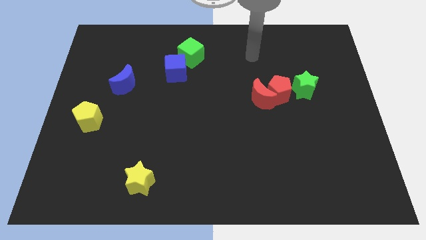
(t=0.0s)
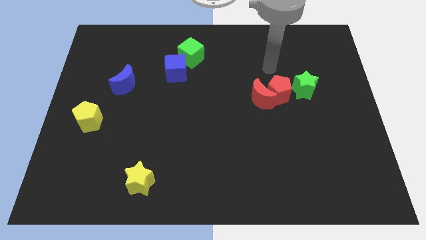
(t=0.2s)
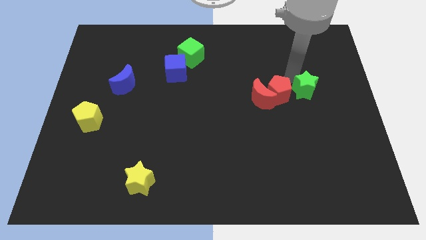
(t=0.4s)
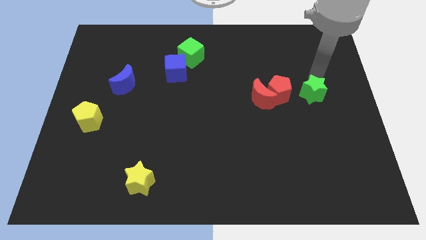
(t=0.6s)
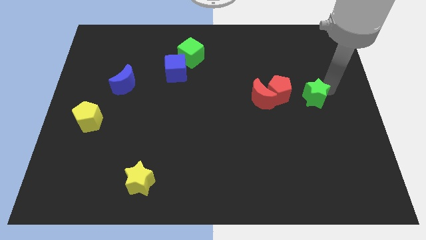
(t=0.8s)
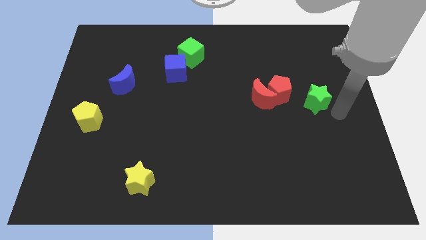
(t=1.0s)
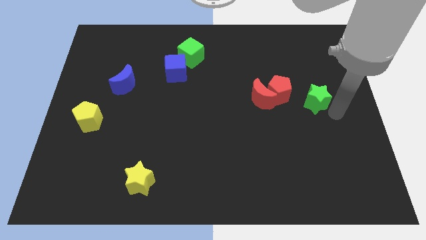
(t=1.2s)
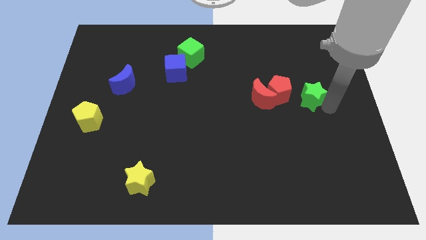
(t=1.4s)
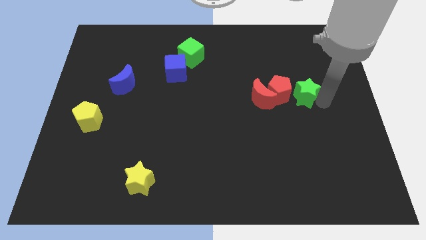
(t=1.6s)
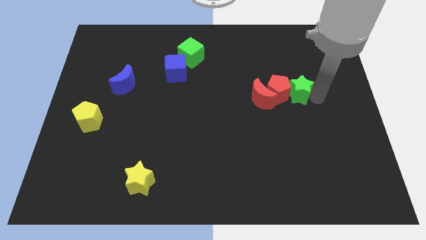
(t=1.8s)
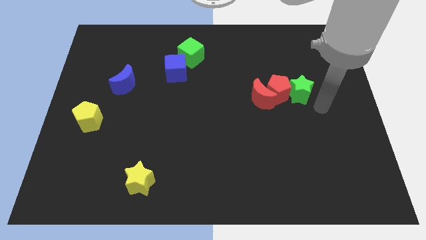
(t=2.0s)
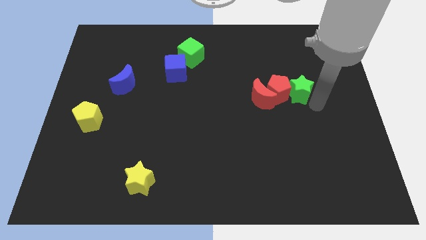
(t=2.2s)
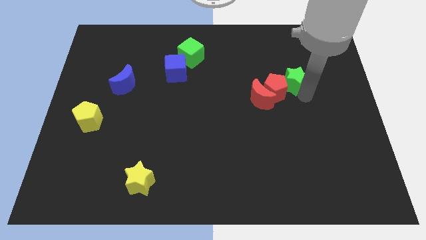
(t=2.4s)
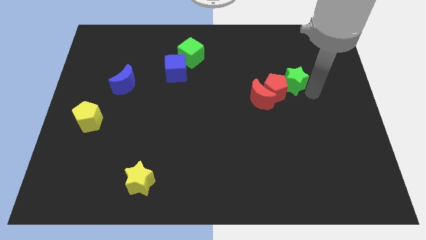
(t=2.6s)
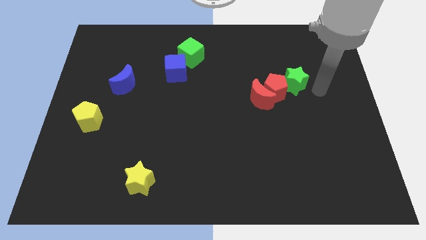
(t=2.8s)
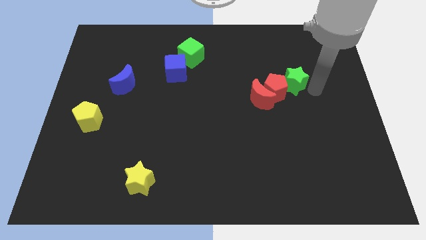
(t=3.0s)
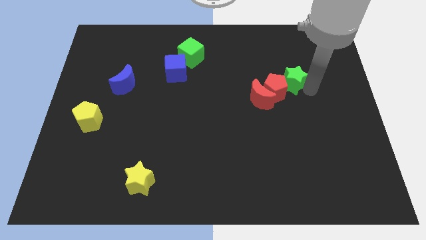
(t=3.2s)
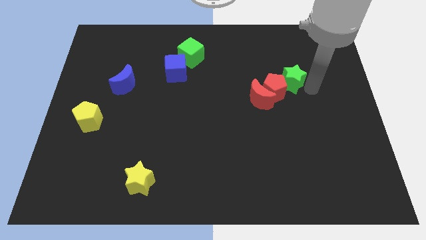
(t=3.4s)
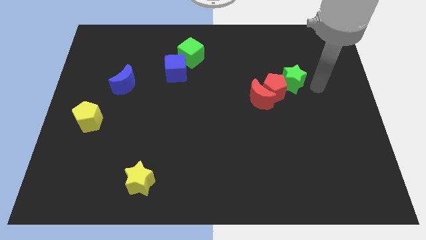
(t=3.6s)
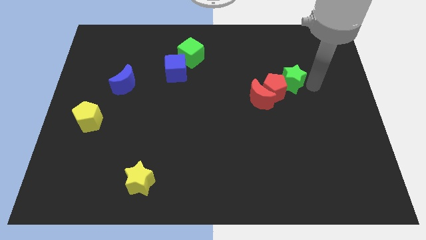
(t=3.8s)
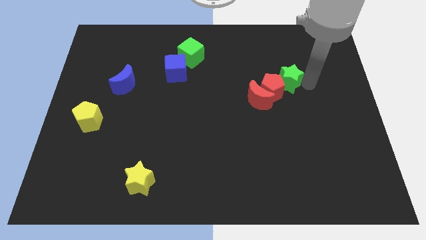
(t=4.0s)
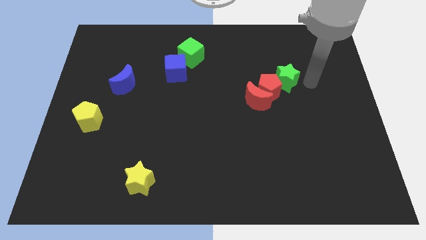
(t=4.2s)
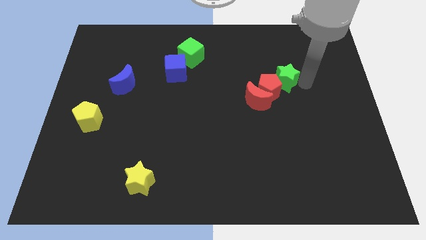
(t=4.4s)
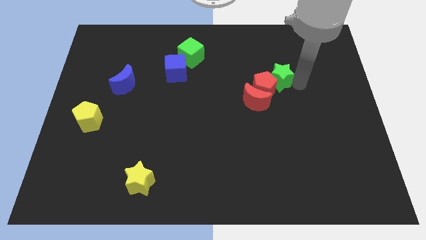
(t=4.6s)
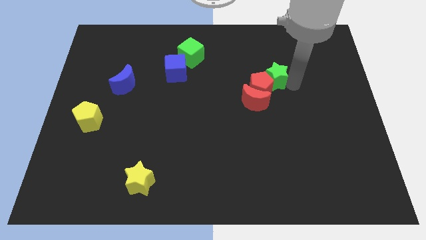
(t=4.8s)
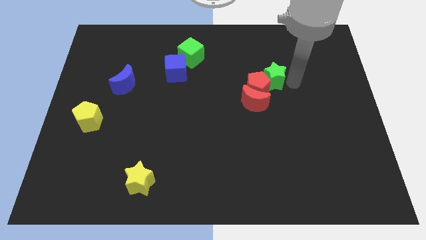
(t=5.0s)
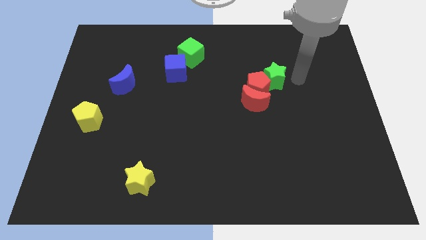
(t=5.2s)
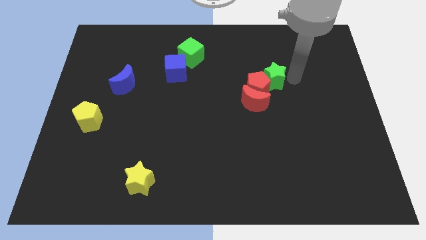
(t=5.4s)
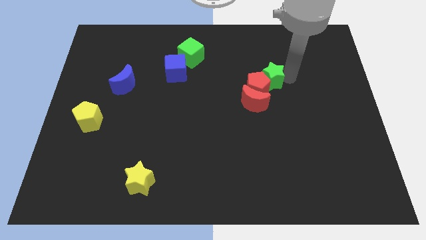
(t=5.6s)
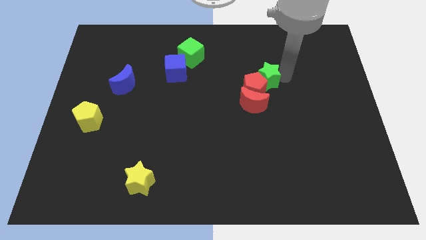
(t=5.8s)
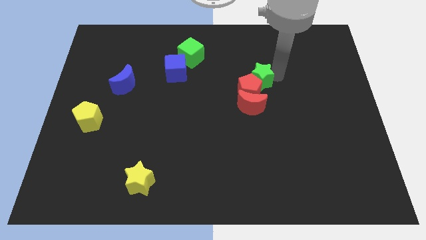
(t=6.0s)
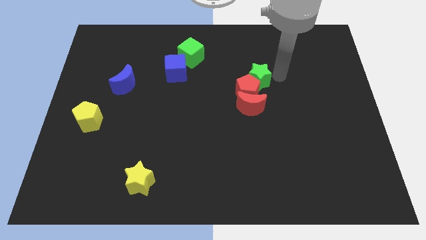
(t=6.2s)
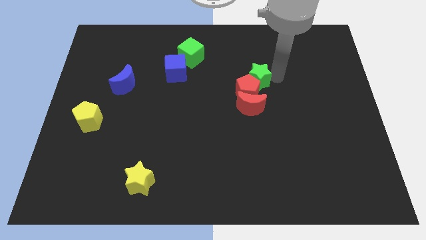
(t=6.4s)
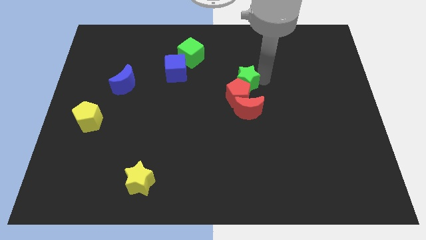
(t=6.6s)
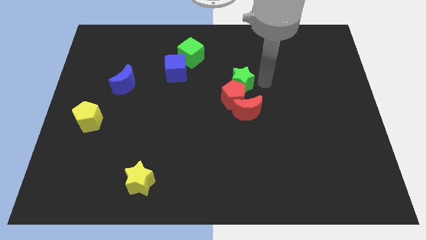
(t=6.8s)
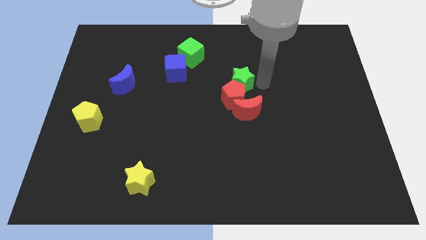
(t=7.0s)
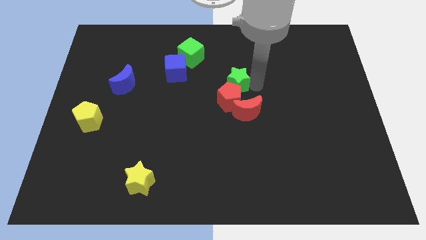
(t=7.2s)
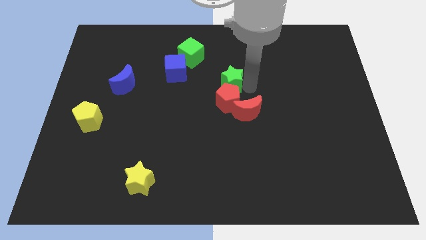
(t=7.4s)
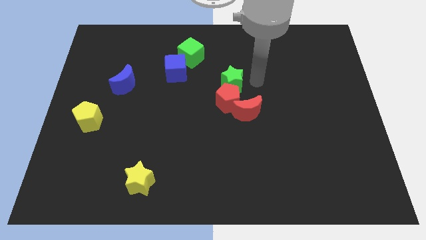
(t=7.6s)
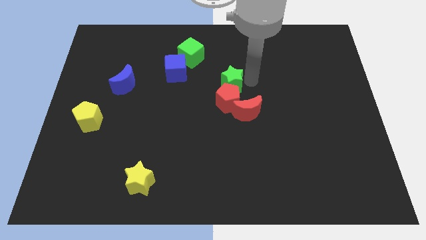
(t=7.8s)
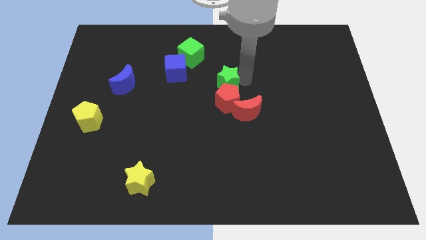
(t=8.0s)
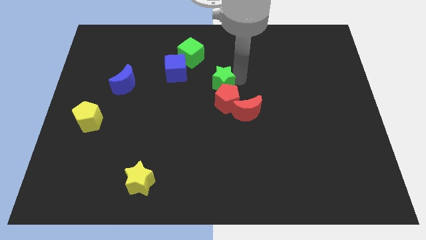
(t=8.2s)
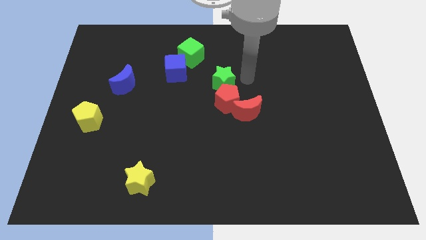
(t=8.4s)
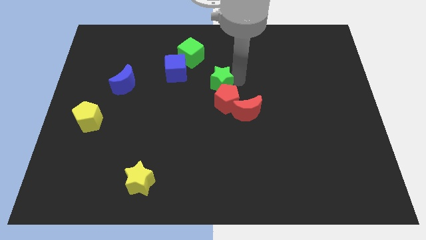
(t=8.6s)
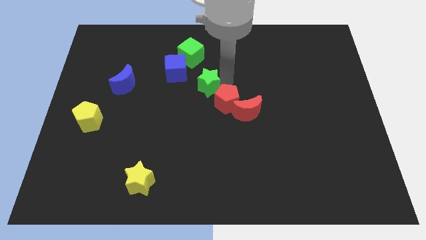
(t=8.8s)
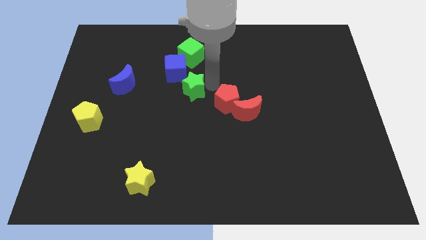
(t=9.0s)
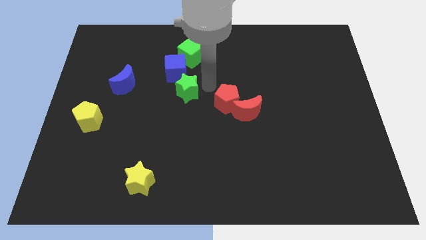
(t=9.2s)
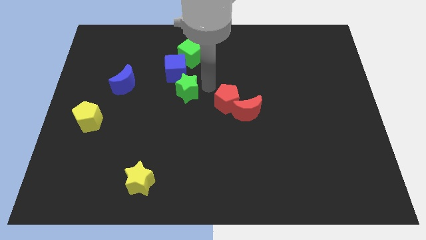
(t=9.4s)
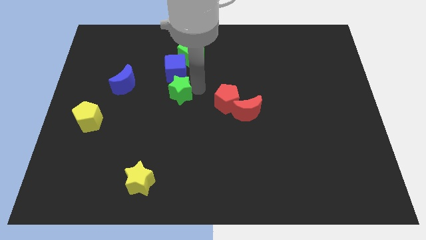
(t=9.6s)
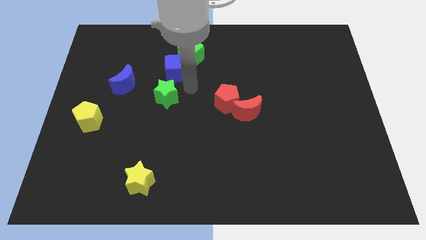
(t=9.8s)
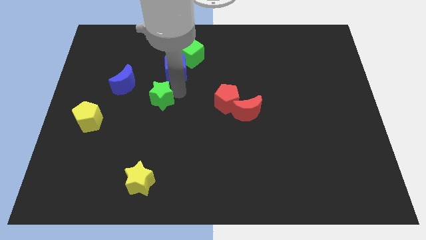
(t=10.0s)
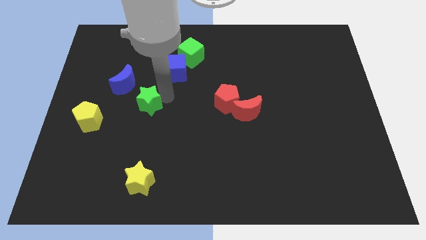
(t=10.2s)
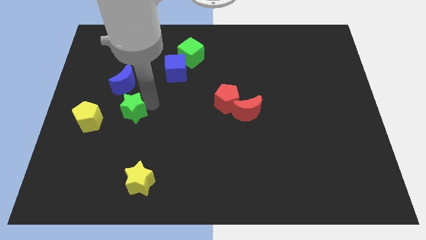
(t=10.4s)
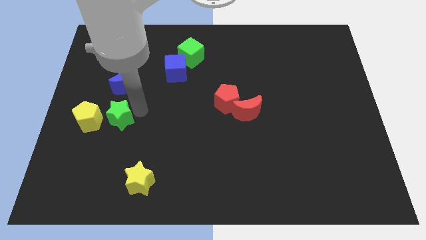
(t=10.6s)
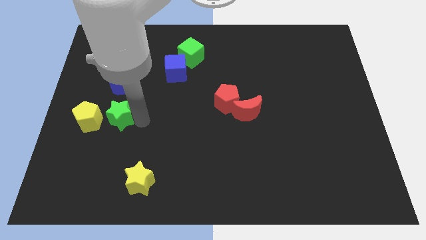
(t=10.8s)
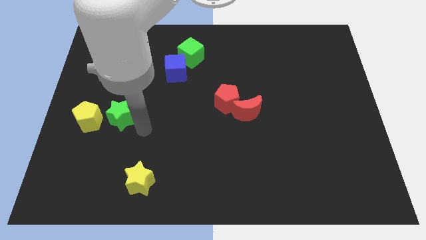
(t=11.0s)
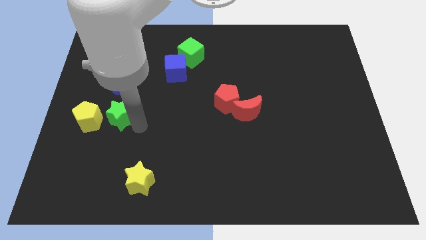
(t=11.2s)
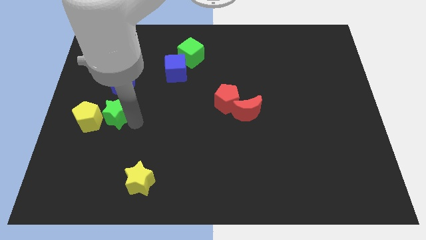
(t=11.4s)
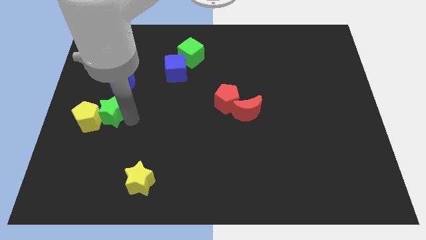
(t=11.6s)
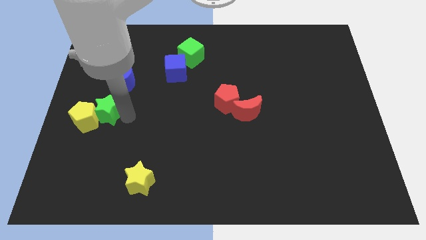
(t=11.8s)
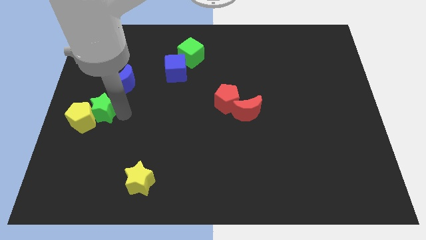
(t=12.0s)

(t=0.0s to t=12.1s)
put the green star to the left side

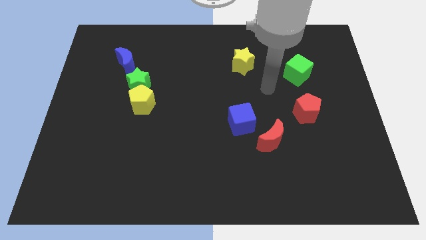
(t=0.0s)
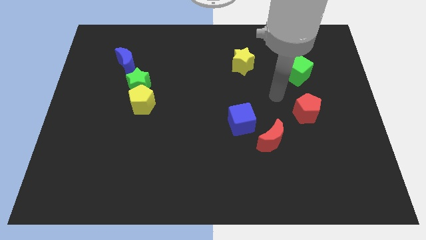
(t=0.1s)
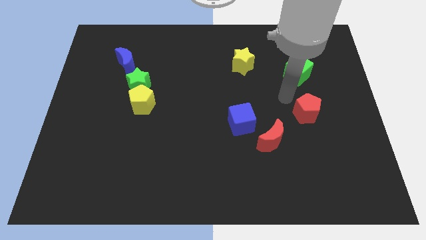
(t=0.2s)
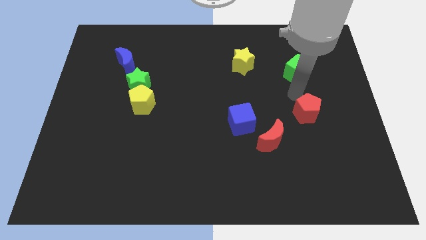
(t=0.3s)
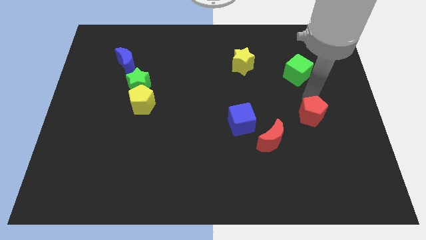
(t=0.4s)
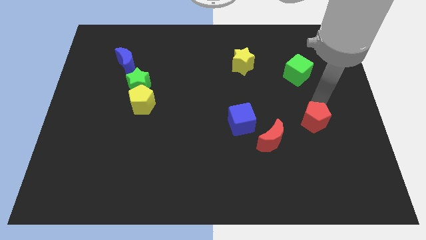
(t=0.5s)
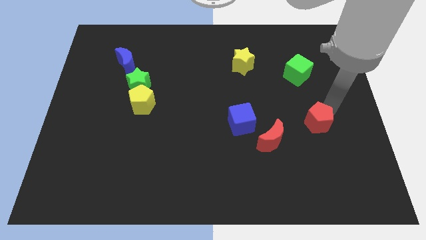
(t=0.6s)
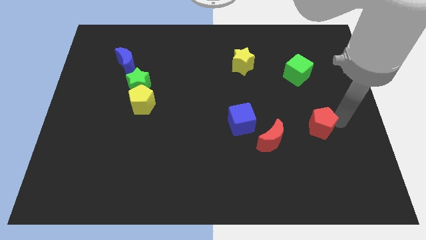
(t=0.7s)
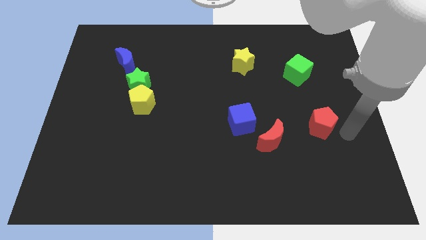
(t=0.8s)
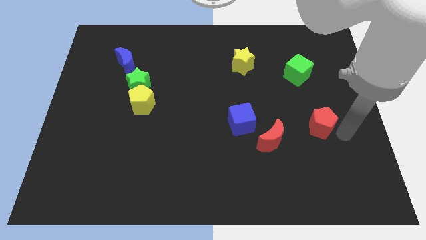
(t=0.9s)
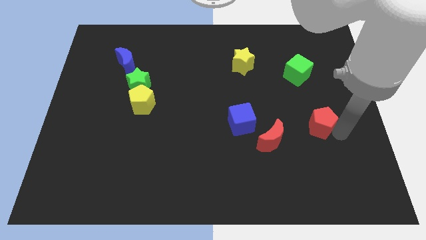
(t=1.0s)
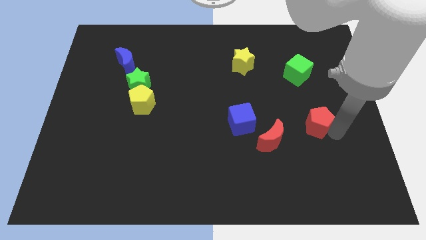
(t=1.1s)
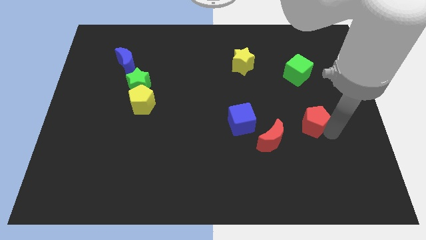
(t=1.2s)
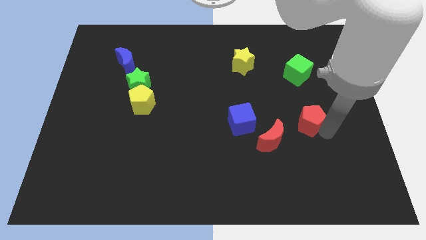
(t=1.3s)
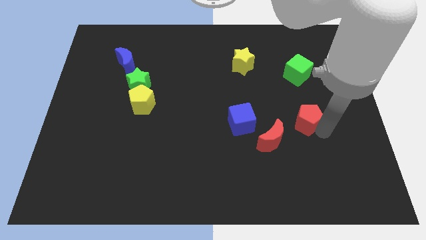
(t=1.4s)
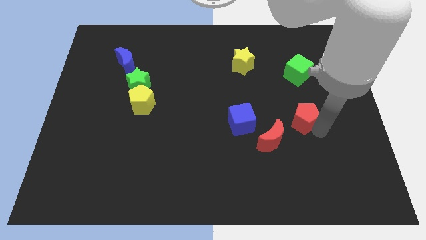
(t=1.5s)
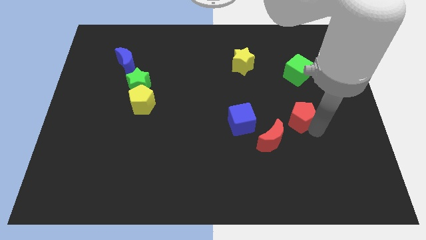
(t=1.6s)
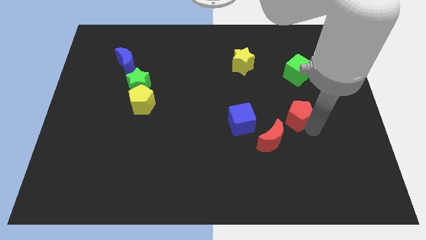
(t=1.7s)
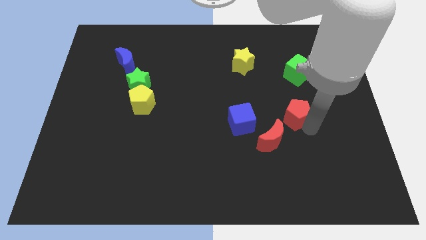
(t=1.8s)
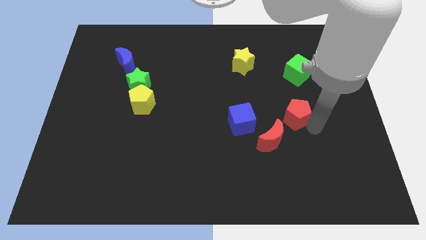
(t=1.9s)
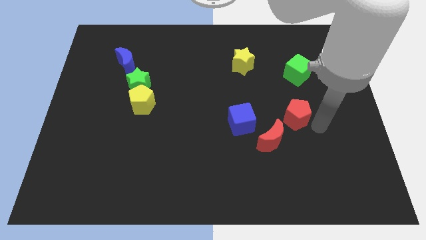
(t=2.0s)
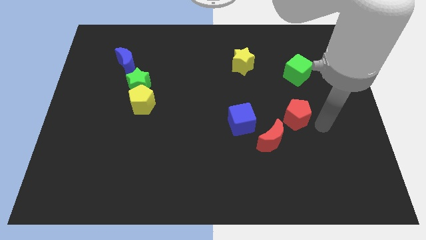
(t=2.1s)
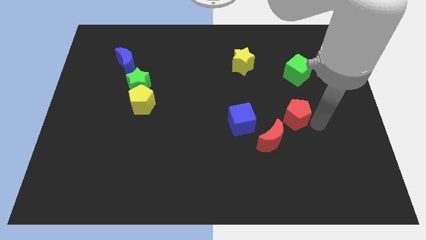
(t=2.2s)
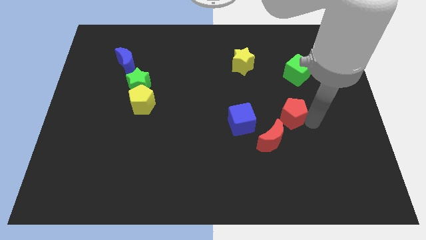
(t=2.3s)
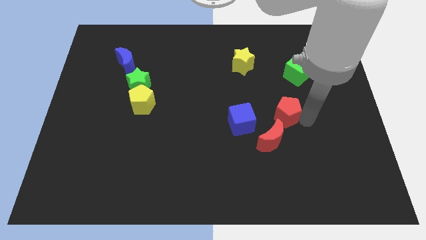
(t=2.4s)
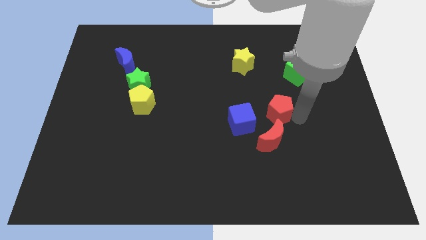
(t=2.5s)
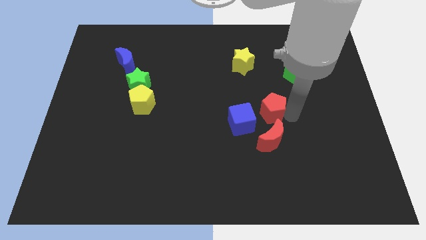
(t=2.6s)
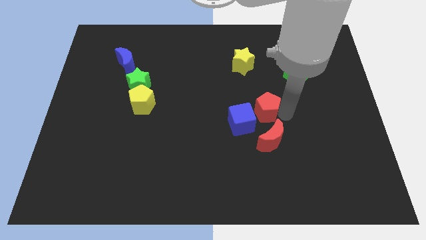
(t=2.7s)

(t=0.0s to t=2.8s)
put the red pentagon to the center of the board
